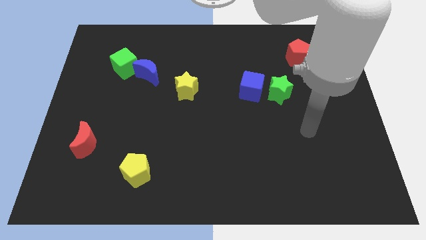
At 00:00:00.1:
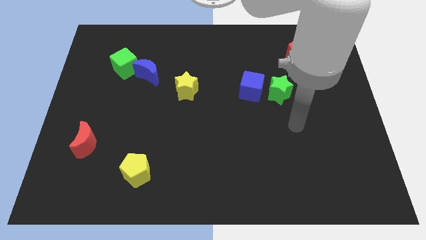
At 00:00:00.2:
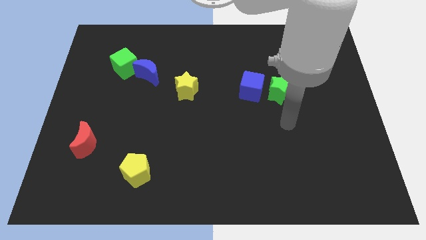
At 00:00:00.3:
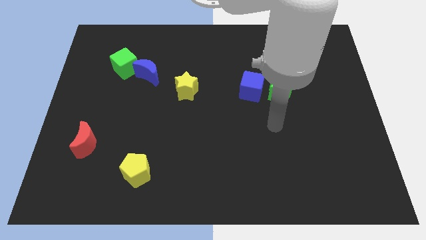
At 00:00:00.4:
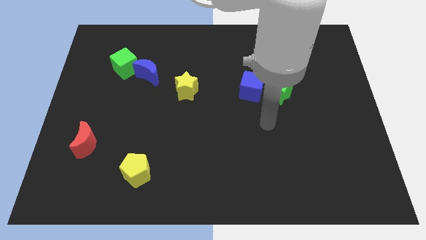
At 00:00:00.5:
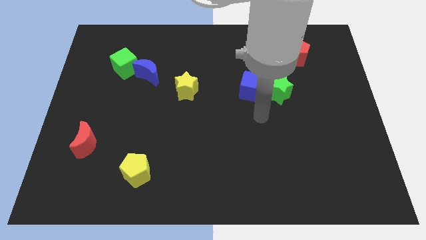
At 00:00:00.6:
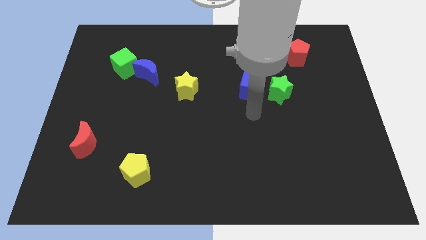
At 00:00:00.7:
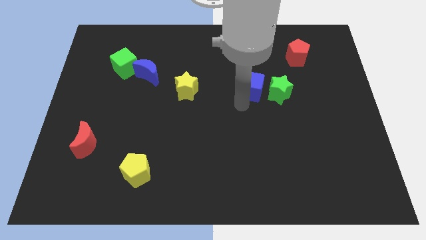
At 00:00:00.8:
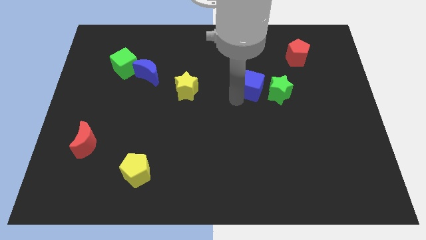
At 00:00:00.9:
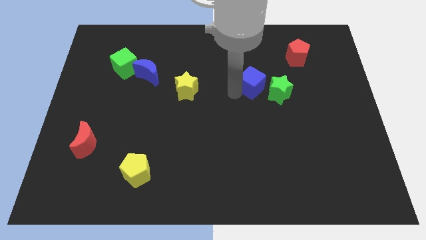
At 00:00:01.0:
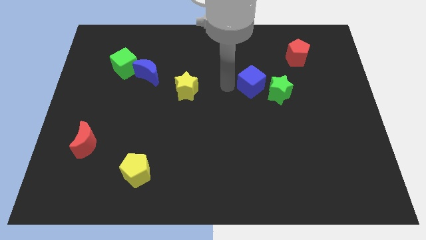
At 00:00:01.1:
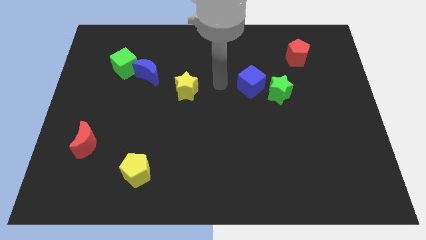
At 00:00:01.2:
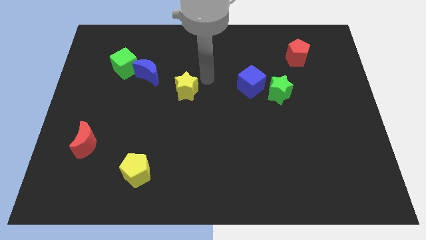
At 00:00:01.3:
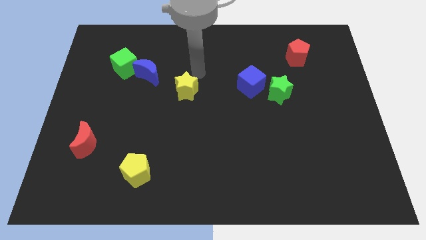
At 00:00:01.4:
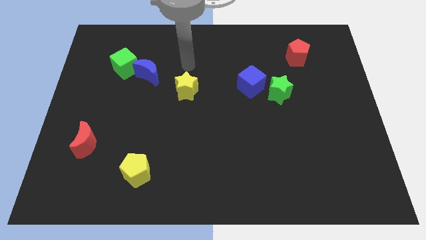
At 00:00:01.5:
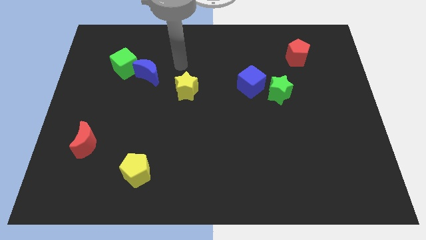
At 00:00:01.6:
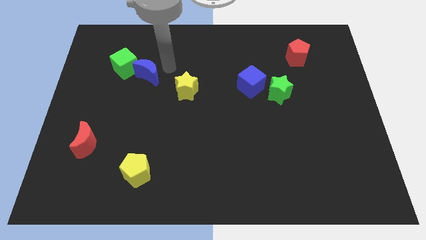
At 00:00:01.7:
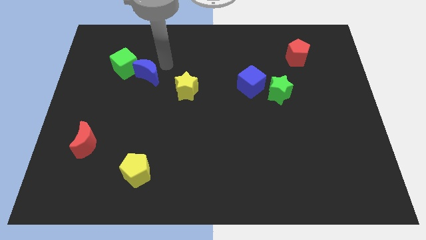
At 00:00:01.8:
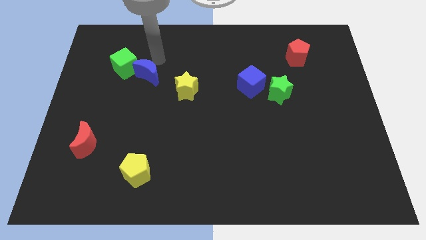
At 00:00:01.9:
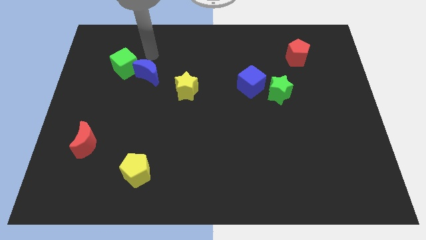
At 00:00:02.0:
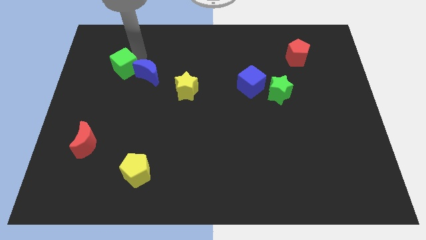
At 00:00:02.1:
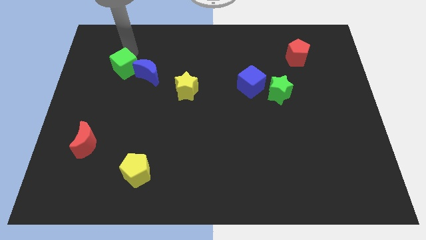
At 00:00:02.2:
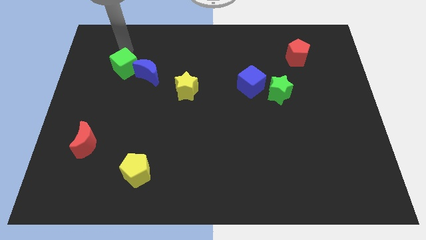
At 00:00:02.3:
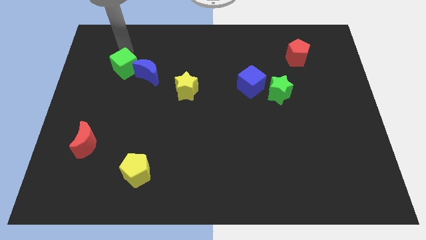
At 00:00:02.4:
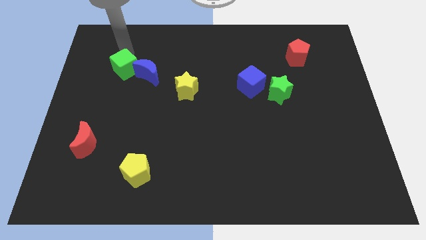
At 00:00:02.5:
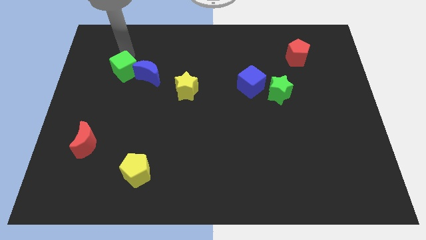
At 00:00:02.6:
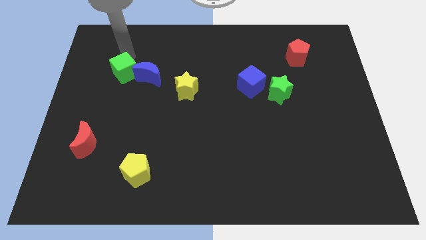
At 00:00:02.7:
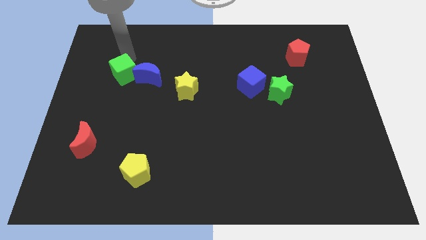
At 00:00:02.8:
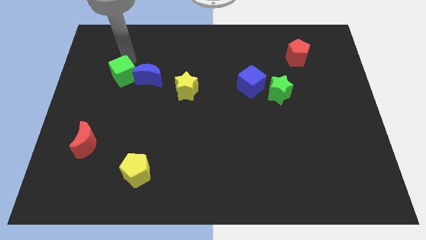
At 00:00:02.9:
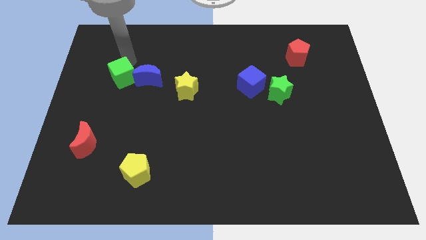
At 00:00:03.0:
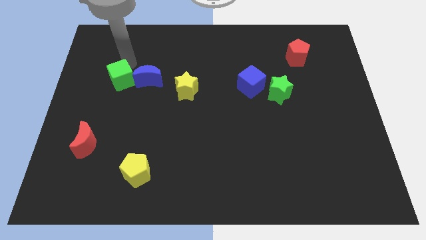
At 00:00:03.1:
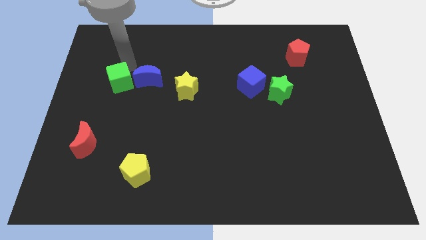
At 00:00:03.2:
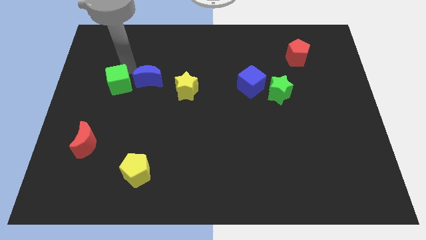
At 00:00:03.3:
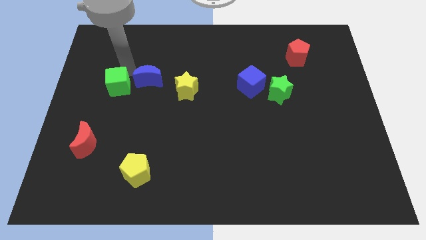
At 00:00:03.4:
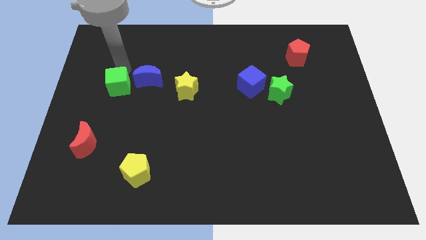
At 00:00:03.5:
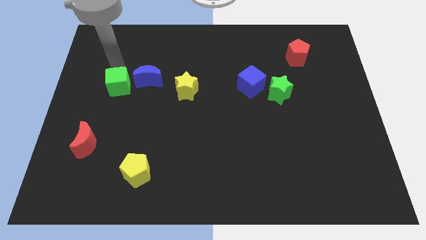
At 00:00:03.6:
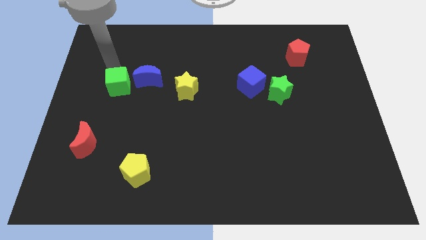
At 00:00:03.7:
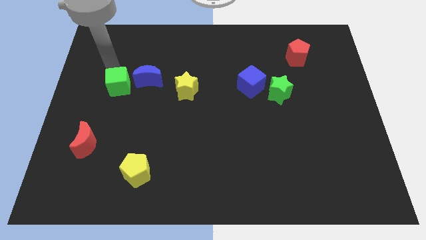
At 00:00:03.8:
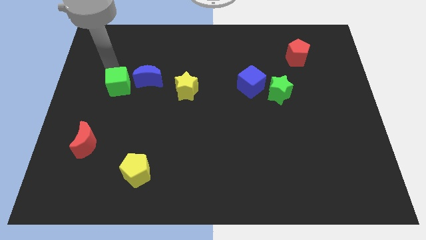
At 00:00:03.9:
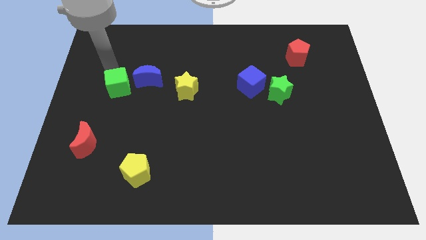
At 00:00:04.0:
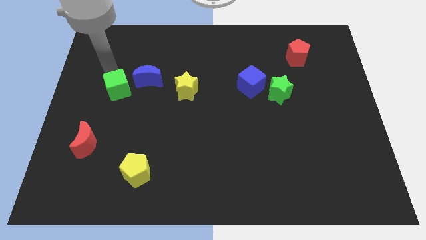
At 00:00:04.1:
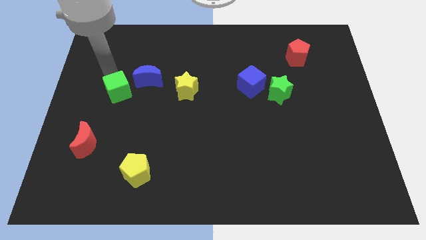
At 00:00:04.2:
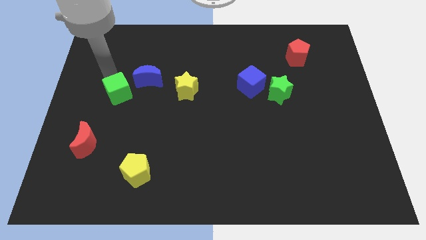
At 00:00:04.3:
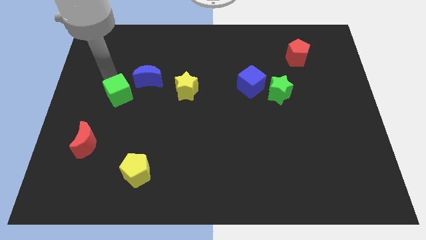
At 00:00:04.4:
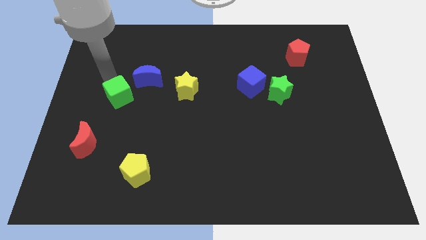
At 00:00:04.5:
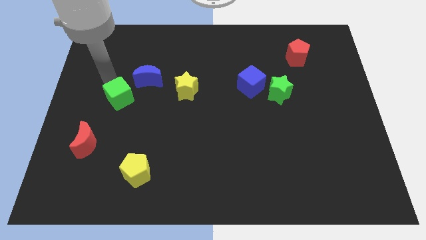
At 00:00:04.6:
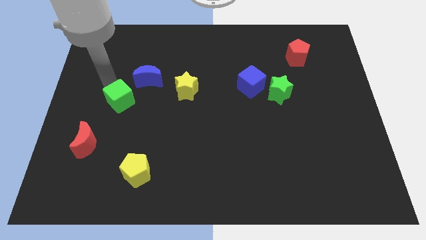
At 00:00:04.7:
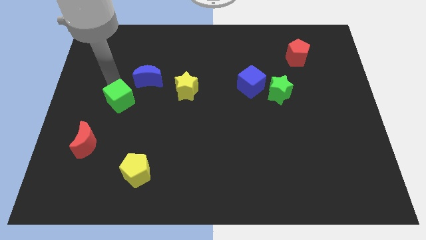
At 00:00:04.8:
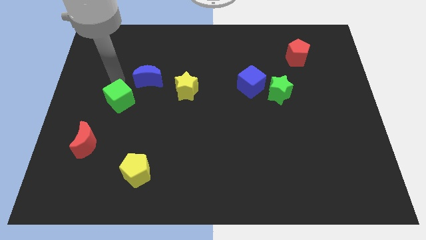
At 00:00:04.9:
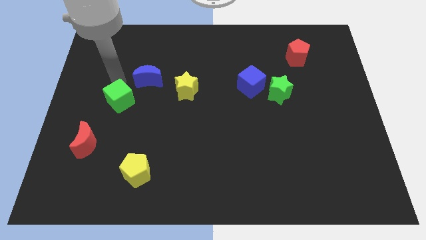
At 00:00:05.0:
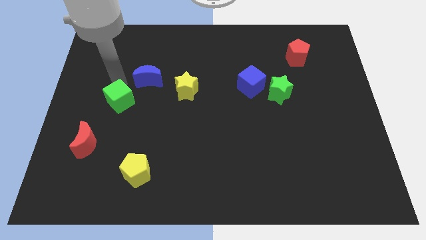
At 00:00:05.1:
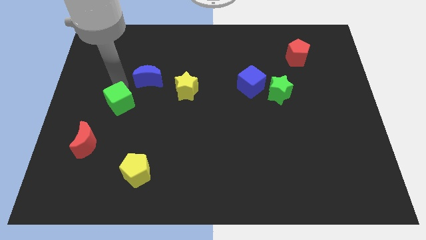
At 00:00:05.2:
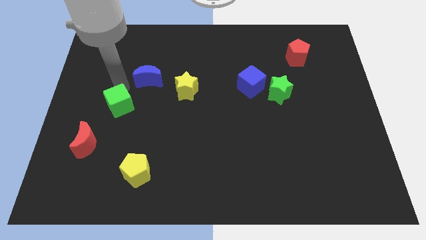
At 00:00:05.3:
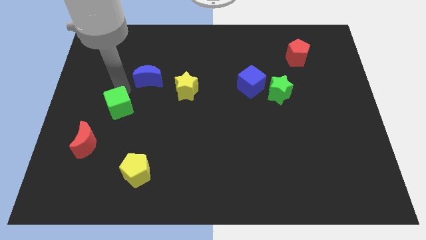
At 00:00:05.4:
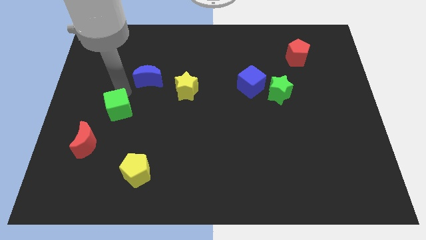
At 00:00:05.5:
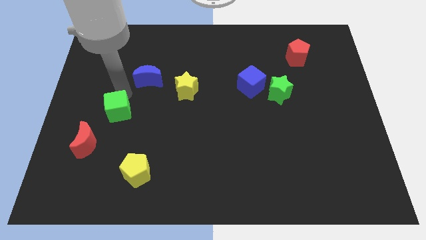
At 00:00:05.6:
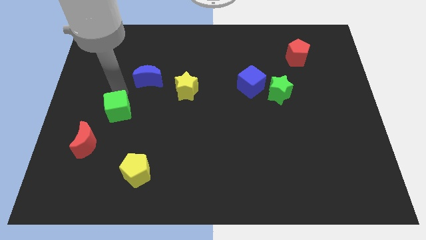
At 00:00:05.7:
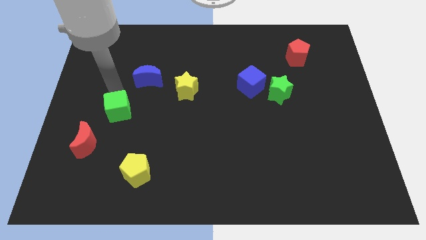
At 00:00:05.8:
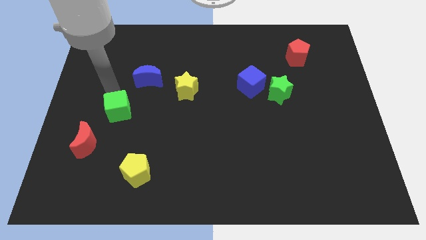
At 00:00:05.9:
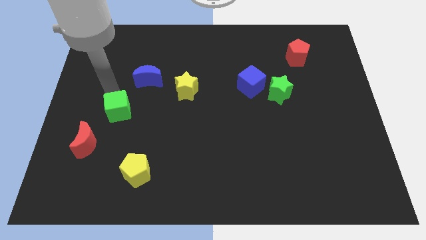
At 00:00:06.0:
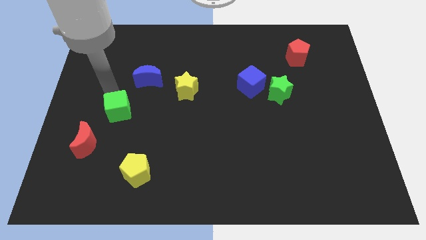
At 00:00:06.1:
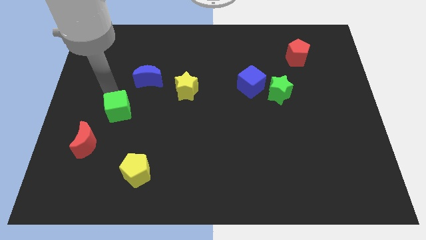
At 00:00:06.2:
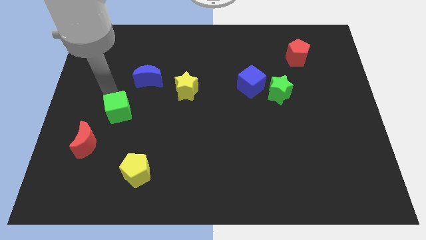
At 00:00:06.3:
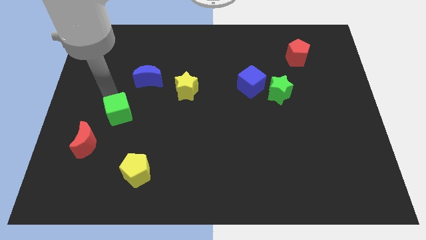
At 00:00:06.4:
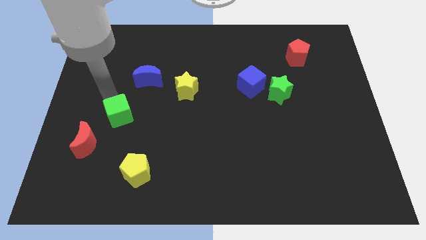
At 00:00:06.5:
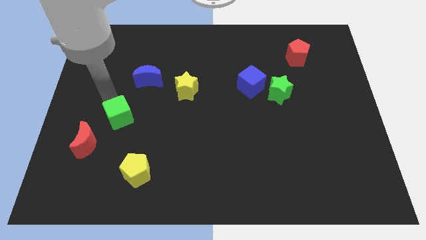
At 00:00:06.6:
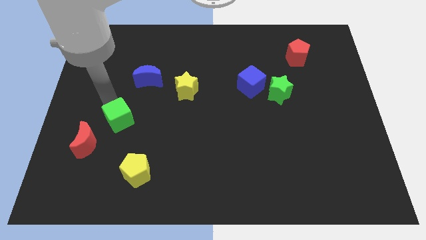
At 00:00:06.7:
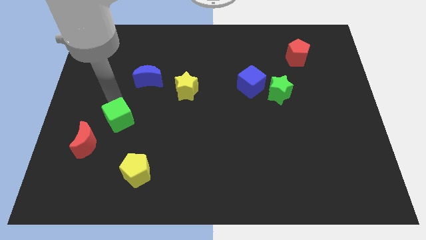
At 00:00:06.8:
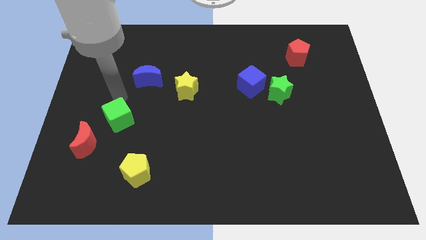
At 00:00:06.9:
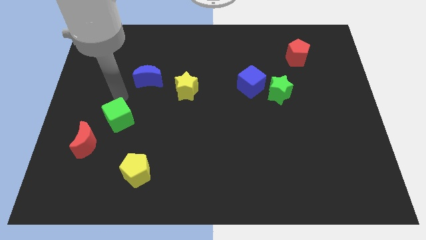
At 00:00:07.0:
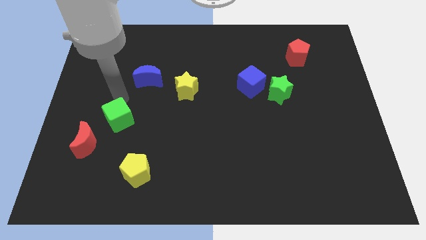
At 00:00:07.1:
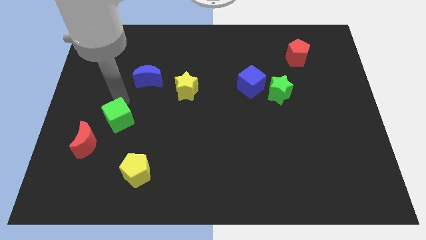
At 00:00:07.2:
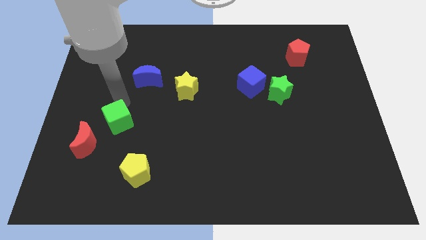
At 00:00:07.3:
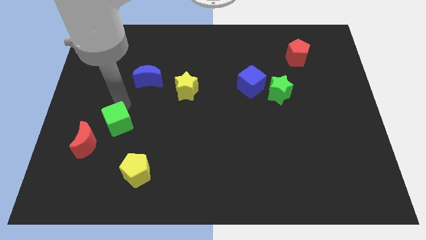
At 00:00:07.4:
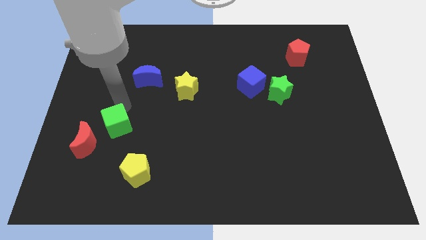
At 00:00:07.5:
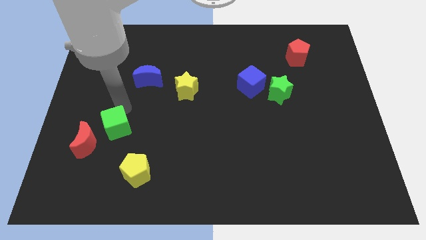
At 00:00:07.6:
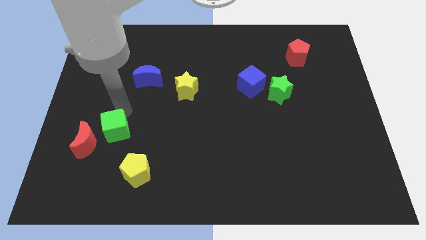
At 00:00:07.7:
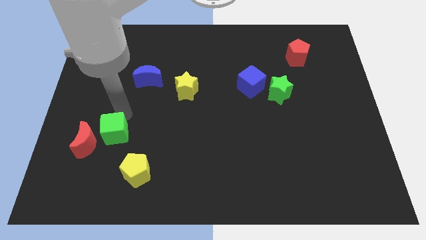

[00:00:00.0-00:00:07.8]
push the green cube down

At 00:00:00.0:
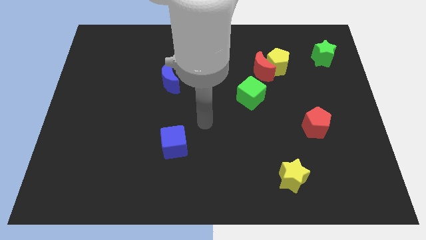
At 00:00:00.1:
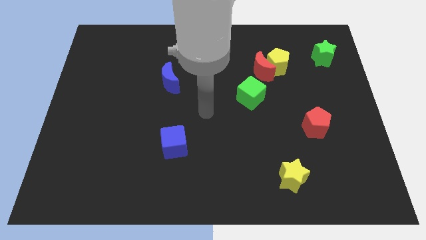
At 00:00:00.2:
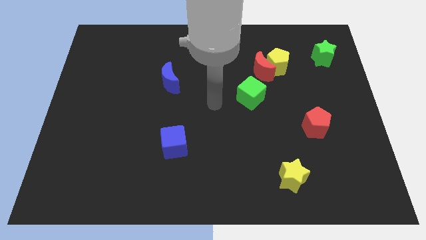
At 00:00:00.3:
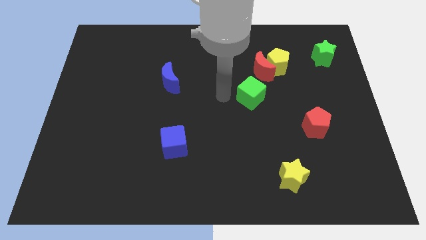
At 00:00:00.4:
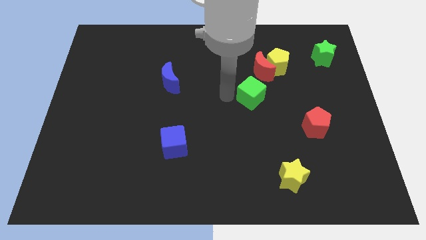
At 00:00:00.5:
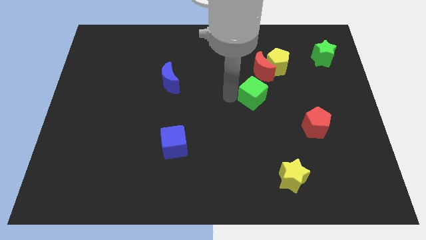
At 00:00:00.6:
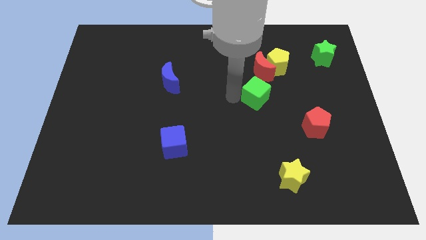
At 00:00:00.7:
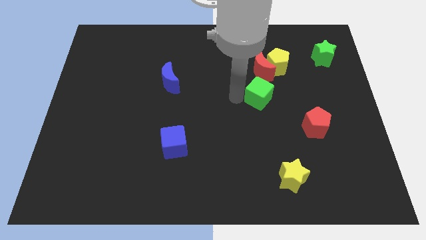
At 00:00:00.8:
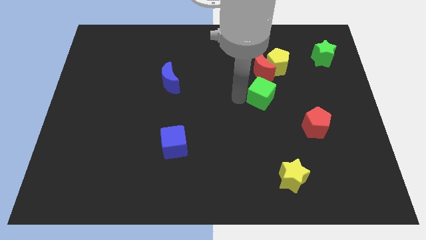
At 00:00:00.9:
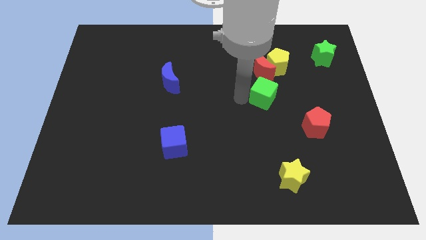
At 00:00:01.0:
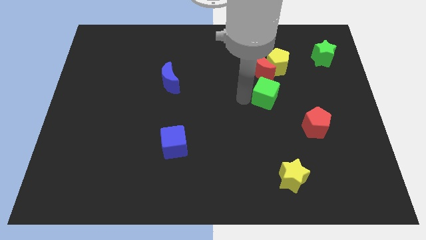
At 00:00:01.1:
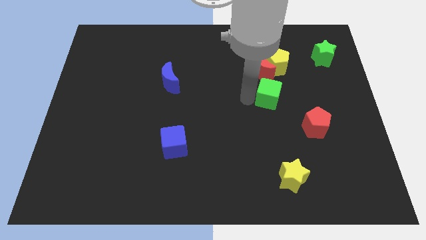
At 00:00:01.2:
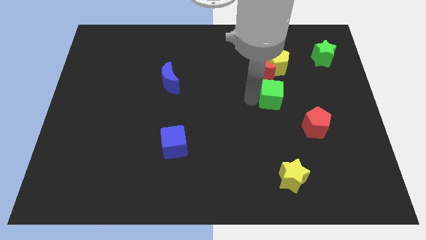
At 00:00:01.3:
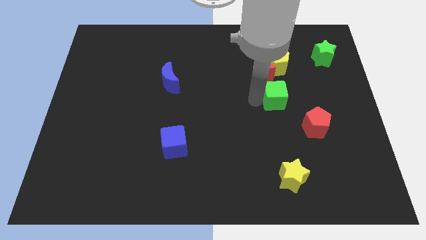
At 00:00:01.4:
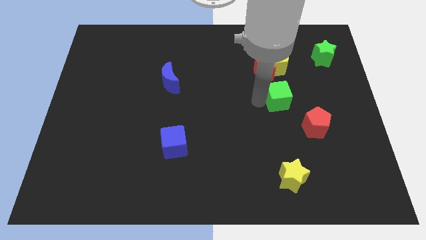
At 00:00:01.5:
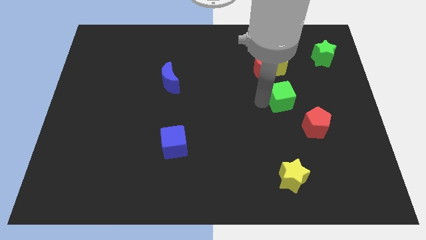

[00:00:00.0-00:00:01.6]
move the green cube a little bit right
